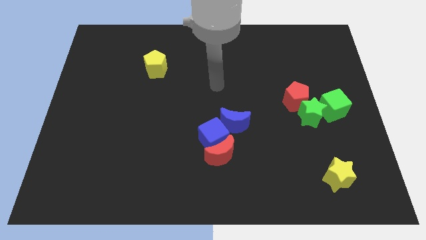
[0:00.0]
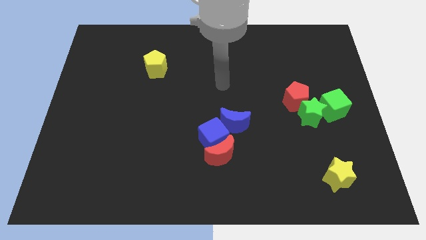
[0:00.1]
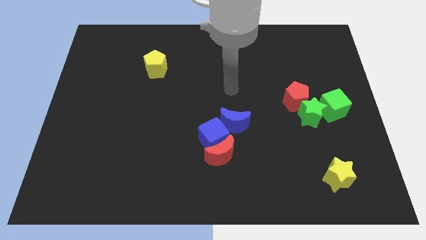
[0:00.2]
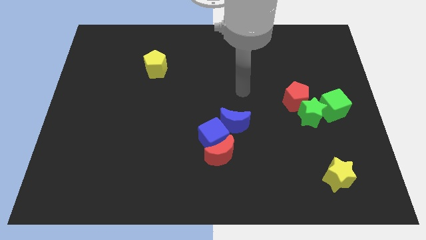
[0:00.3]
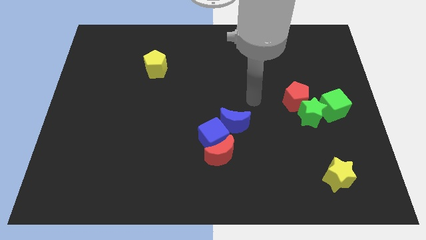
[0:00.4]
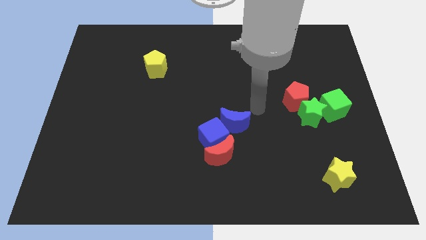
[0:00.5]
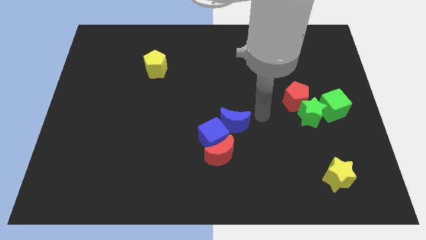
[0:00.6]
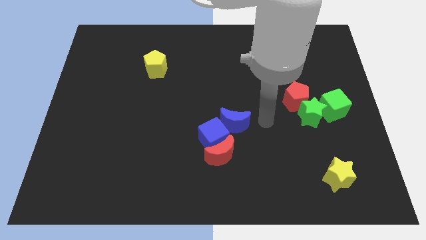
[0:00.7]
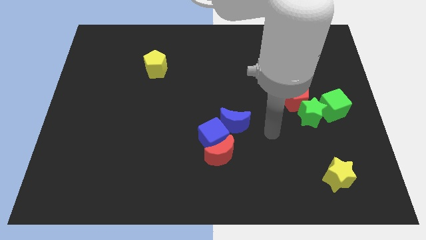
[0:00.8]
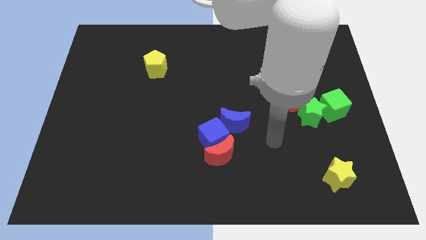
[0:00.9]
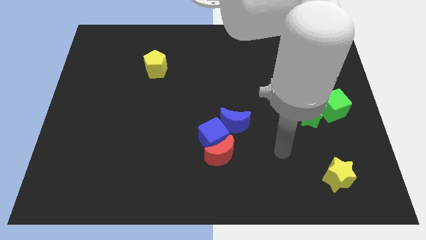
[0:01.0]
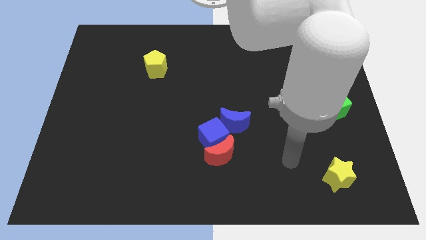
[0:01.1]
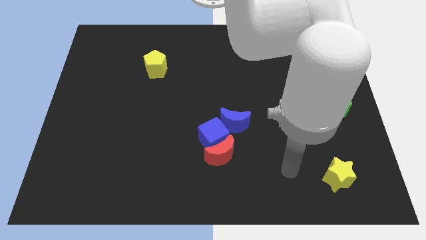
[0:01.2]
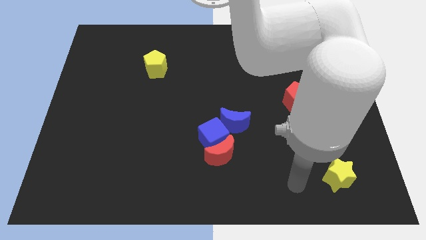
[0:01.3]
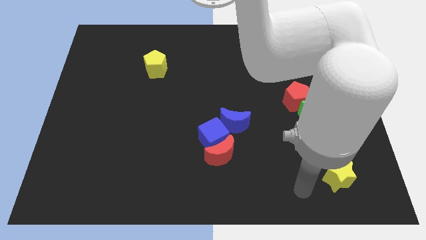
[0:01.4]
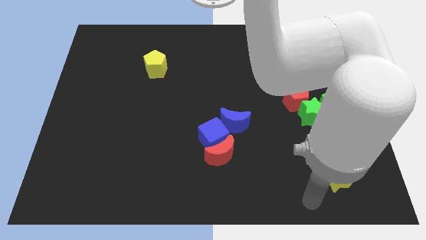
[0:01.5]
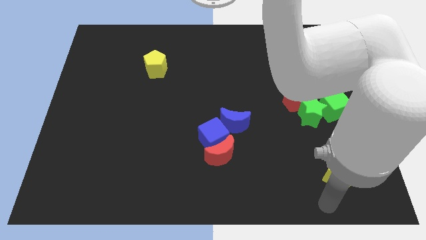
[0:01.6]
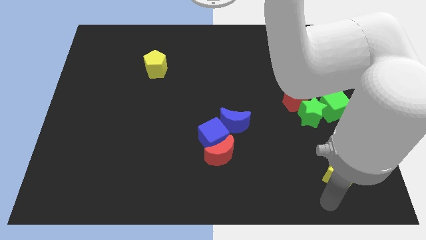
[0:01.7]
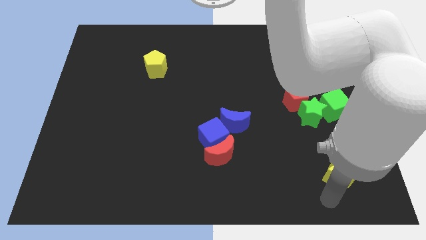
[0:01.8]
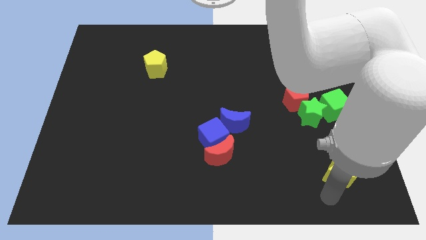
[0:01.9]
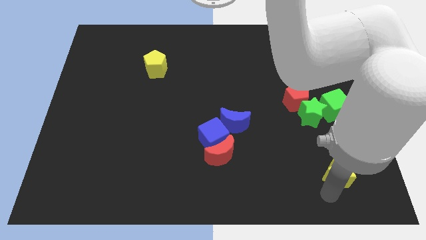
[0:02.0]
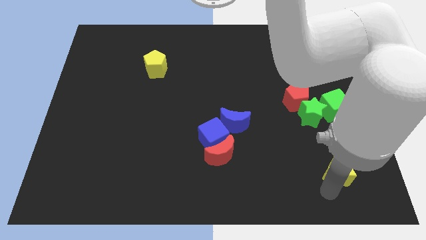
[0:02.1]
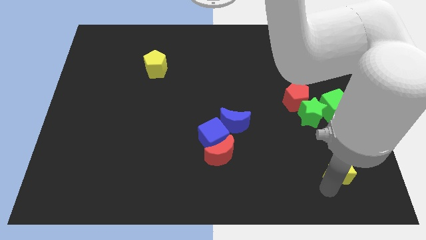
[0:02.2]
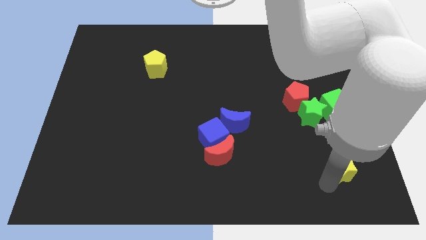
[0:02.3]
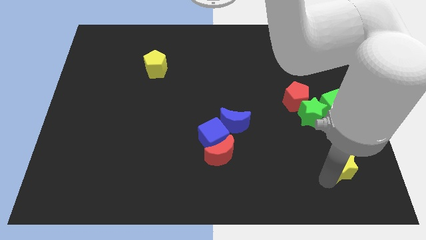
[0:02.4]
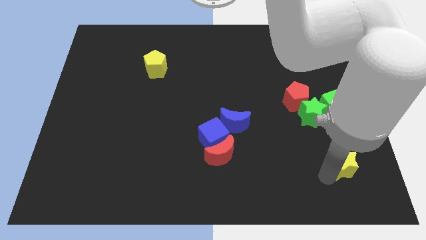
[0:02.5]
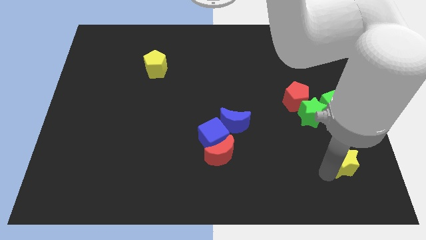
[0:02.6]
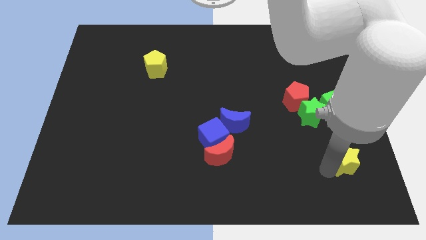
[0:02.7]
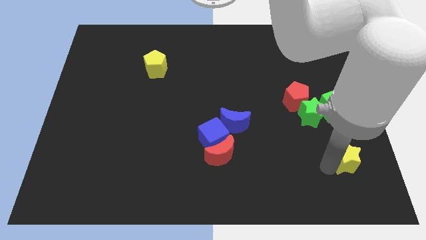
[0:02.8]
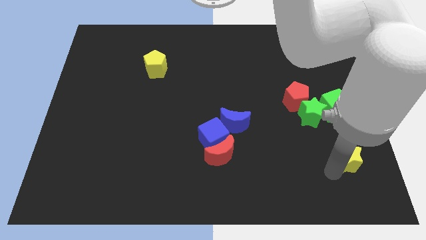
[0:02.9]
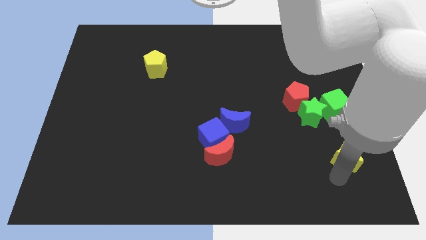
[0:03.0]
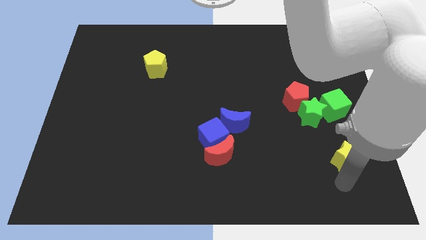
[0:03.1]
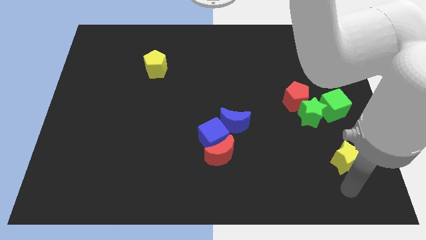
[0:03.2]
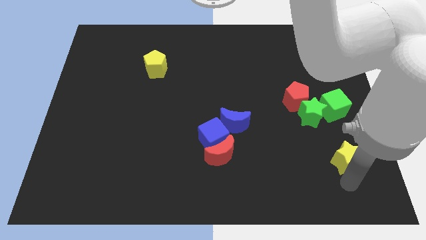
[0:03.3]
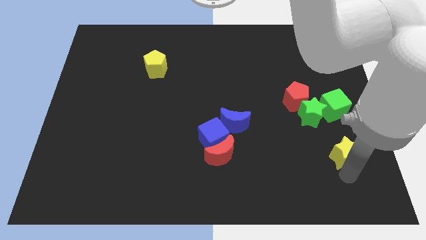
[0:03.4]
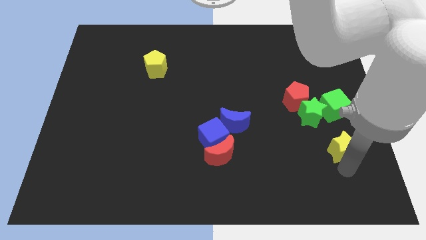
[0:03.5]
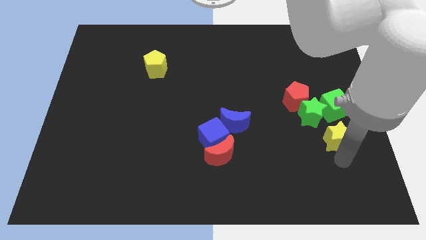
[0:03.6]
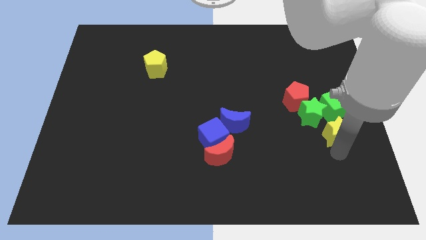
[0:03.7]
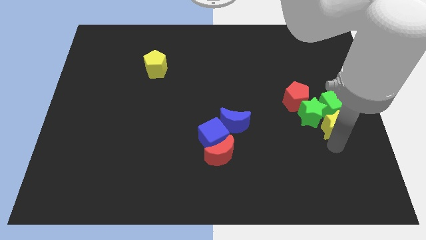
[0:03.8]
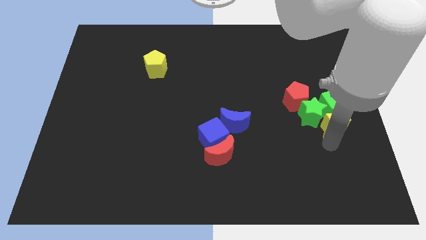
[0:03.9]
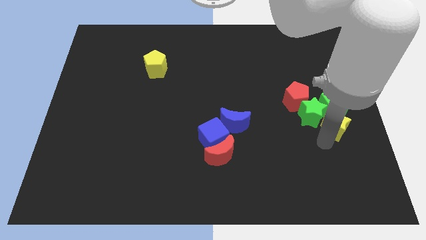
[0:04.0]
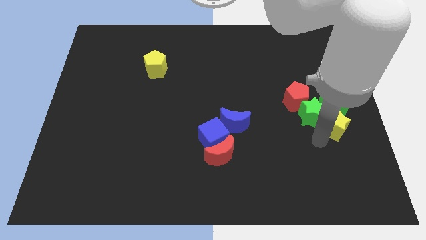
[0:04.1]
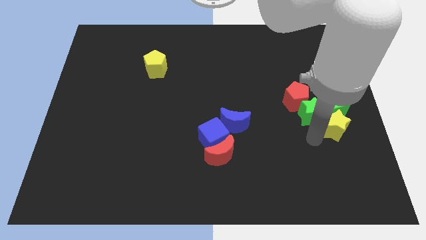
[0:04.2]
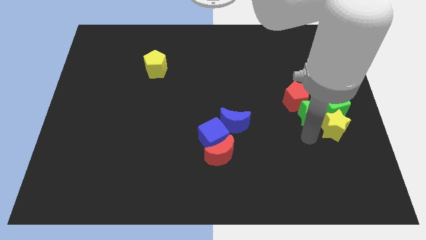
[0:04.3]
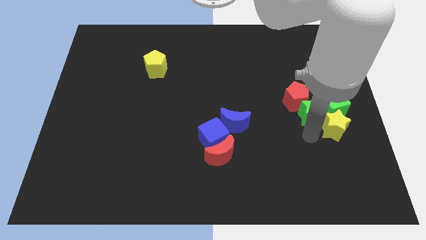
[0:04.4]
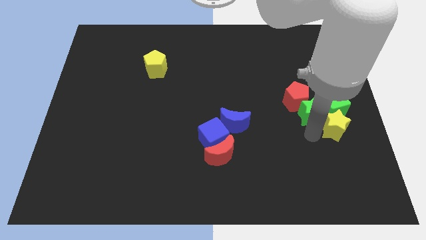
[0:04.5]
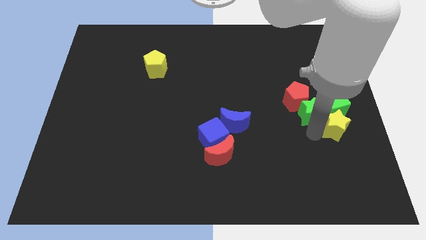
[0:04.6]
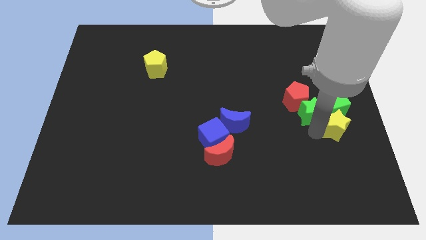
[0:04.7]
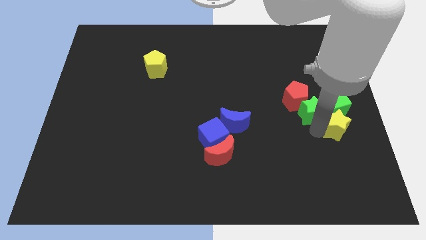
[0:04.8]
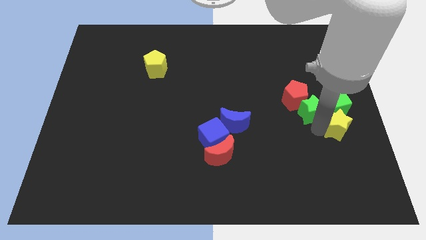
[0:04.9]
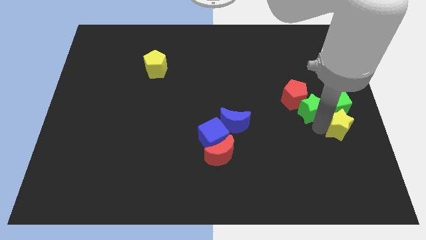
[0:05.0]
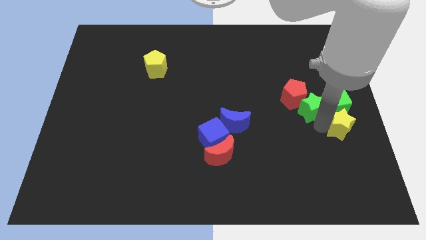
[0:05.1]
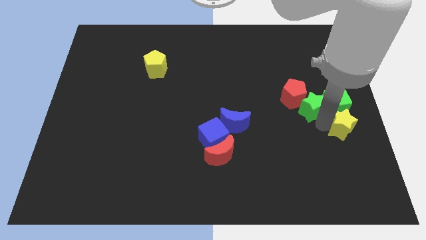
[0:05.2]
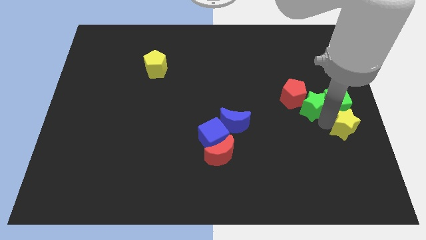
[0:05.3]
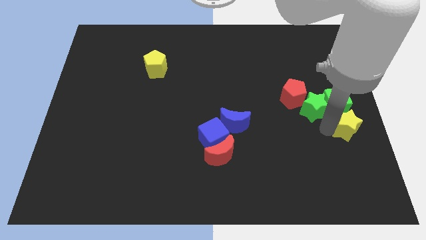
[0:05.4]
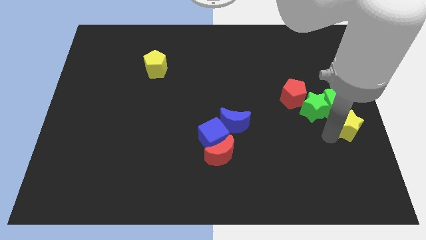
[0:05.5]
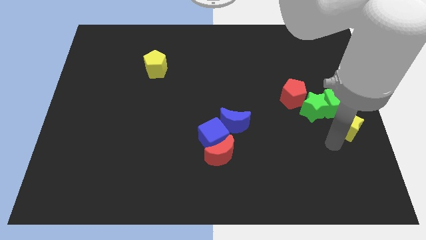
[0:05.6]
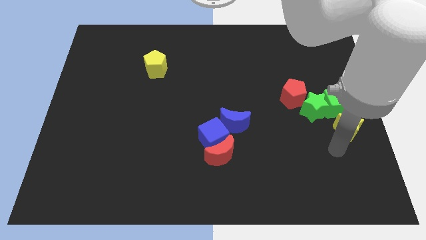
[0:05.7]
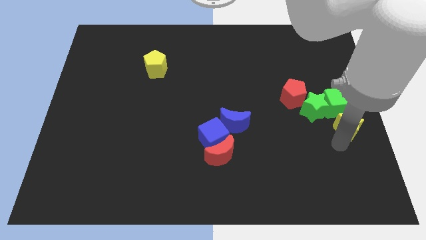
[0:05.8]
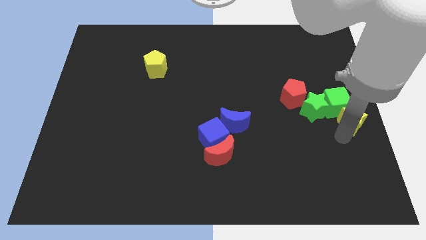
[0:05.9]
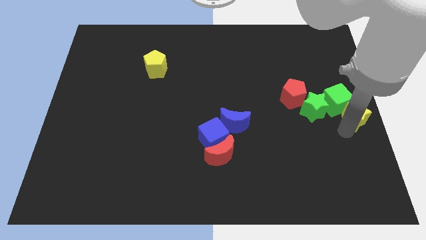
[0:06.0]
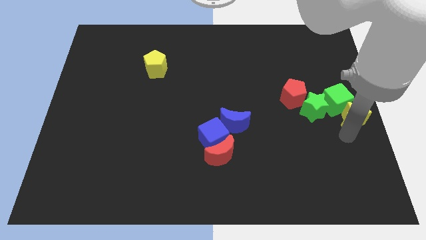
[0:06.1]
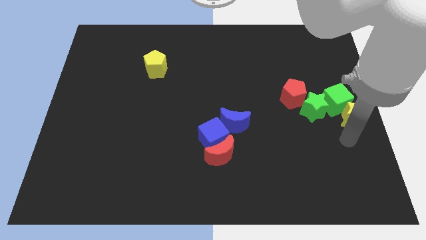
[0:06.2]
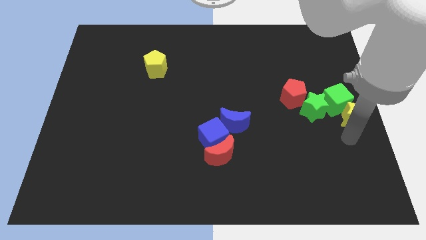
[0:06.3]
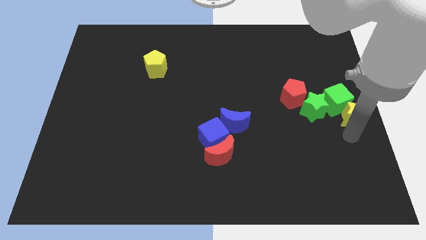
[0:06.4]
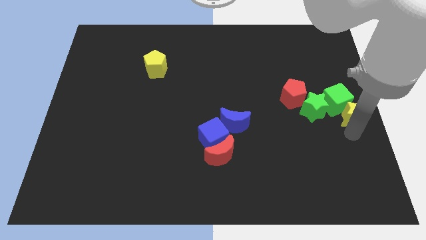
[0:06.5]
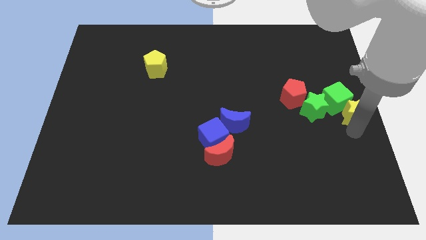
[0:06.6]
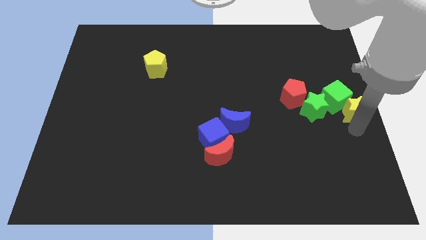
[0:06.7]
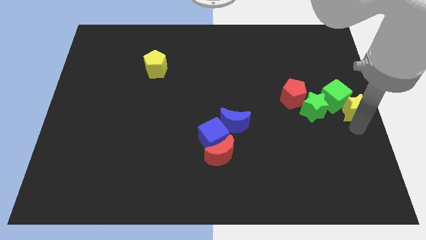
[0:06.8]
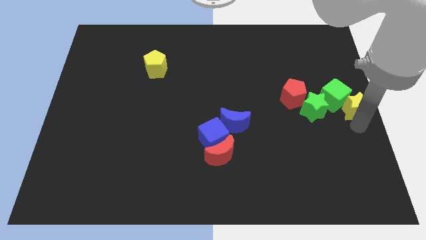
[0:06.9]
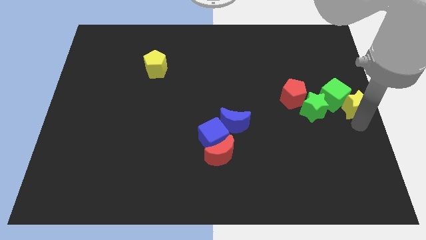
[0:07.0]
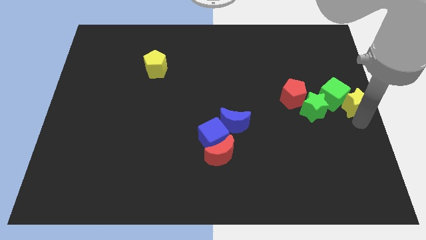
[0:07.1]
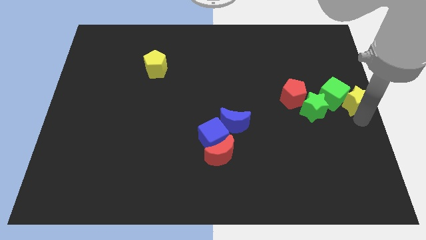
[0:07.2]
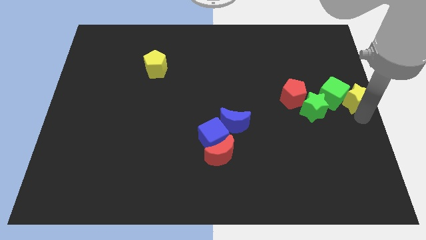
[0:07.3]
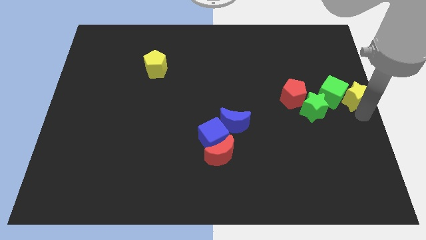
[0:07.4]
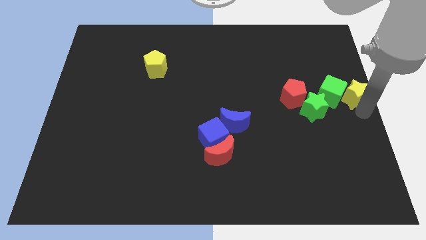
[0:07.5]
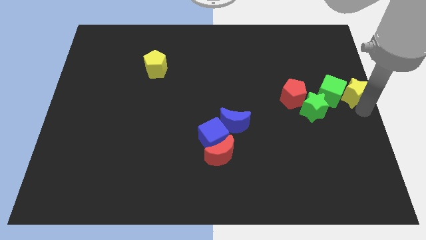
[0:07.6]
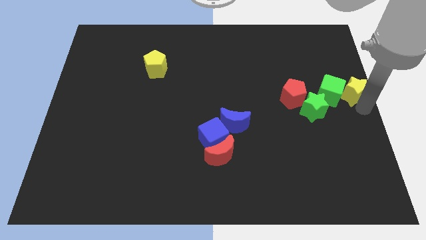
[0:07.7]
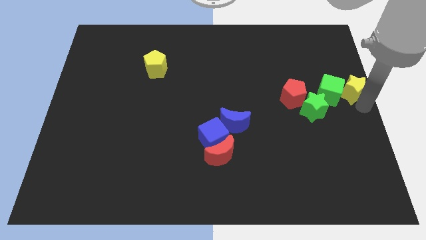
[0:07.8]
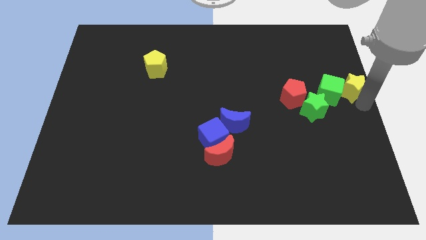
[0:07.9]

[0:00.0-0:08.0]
push the yellow star upwards
